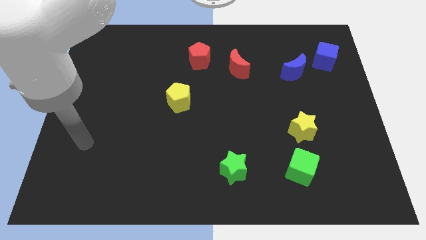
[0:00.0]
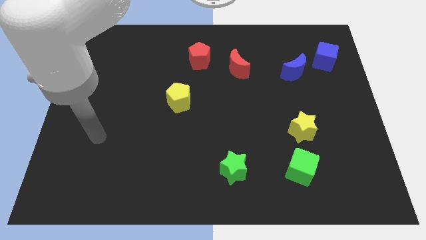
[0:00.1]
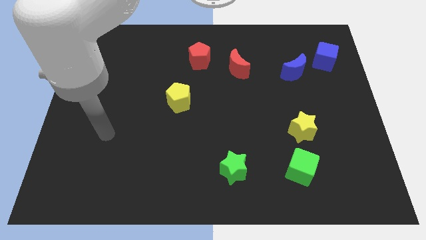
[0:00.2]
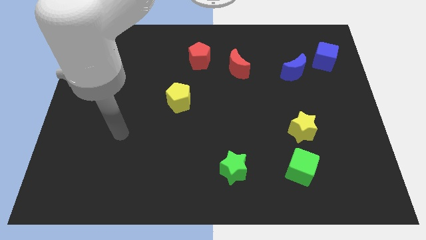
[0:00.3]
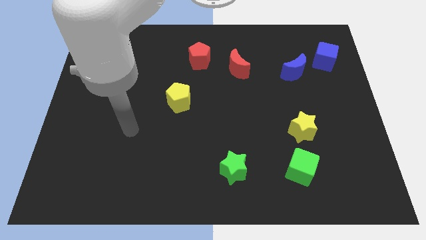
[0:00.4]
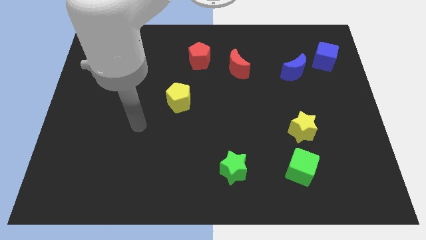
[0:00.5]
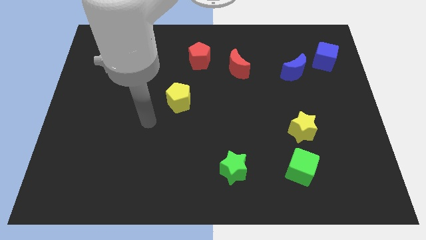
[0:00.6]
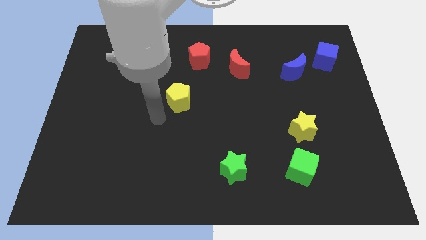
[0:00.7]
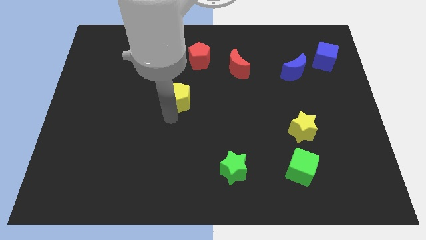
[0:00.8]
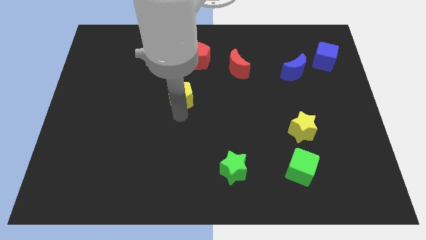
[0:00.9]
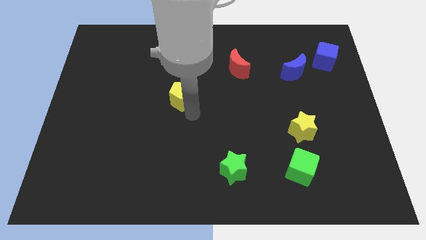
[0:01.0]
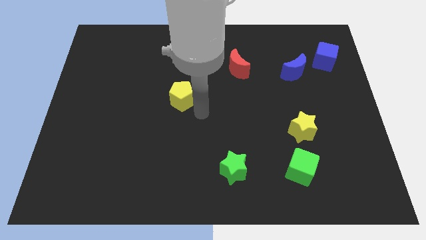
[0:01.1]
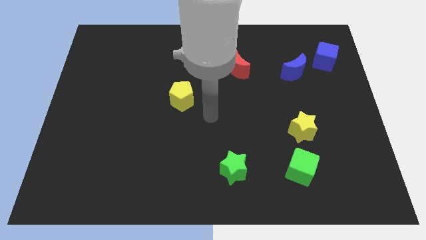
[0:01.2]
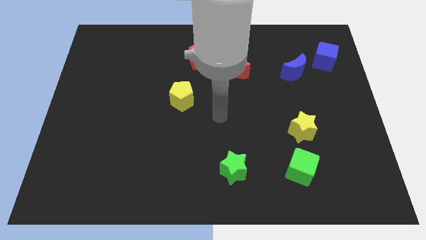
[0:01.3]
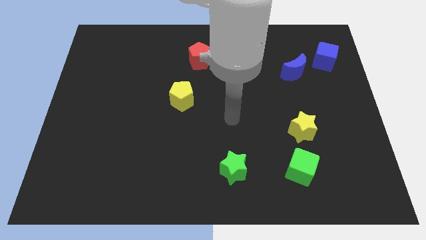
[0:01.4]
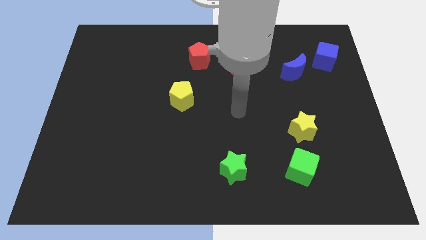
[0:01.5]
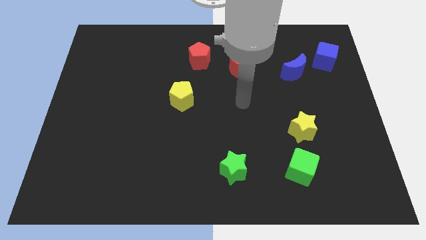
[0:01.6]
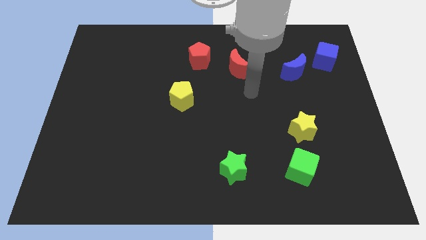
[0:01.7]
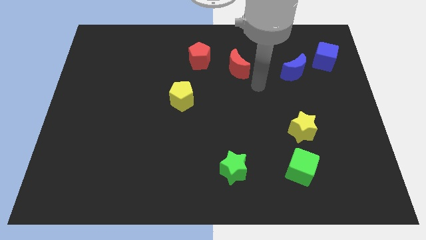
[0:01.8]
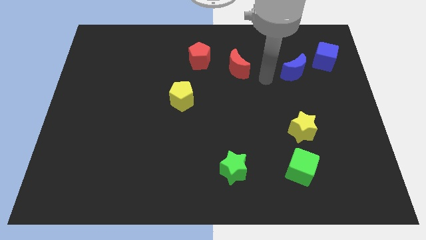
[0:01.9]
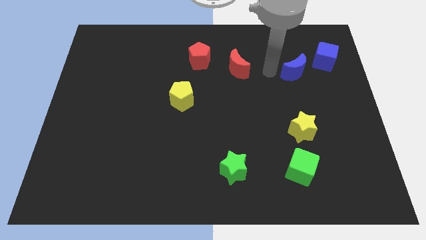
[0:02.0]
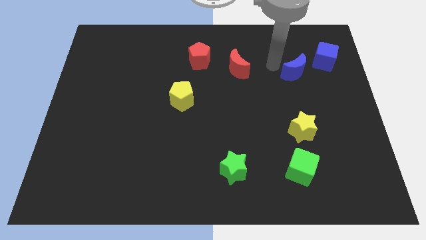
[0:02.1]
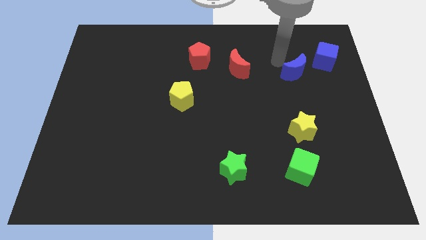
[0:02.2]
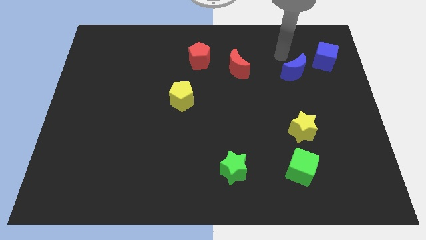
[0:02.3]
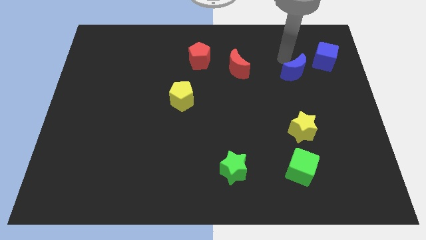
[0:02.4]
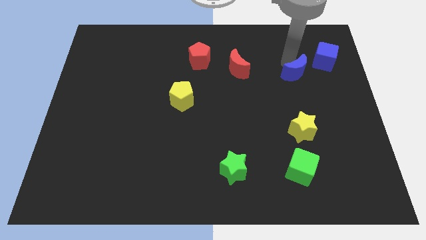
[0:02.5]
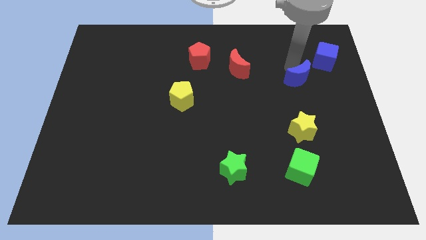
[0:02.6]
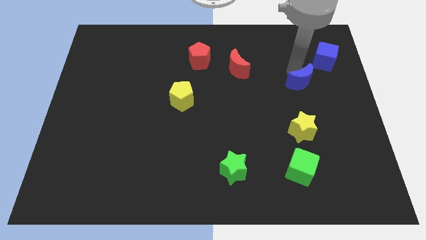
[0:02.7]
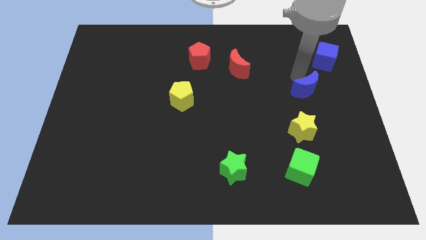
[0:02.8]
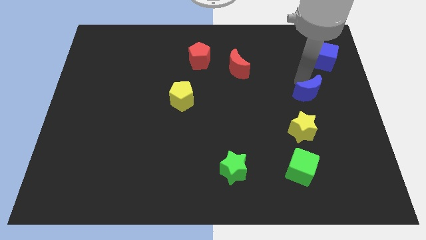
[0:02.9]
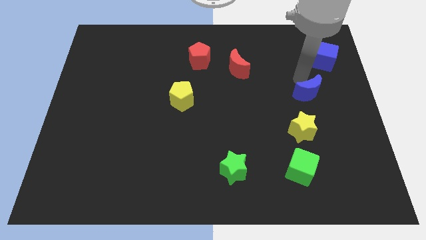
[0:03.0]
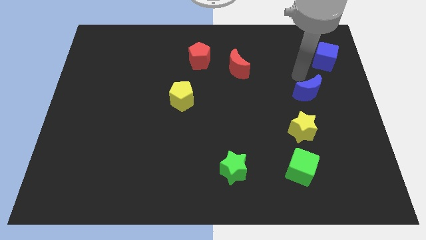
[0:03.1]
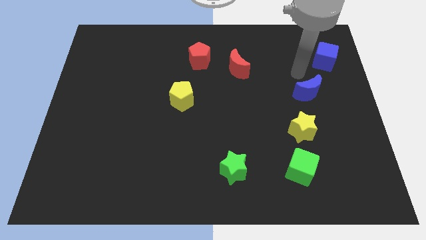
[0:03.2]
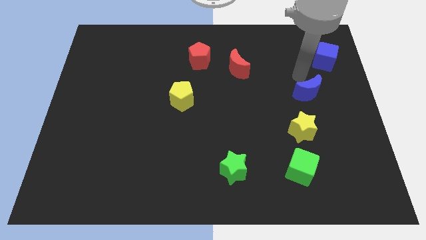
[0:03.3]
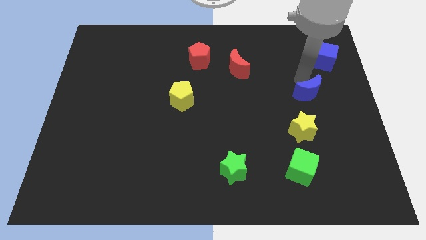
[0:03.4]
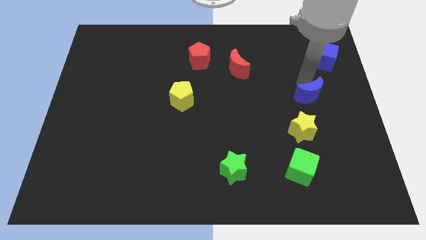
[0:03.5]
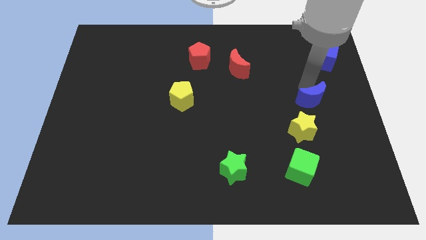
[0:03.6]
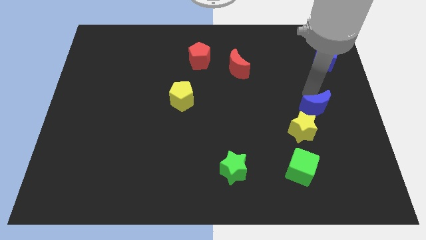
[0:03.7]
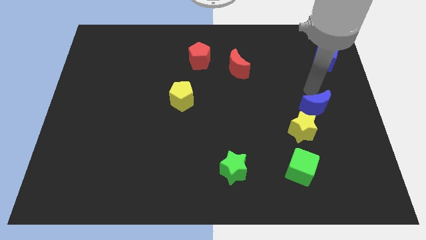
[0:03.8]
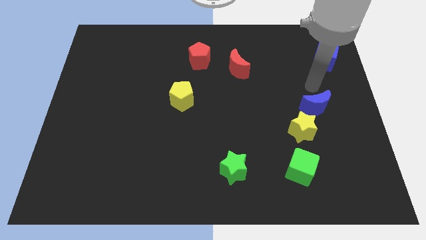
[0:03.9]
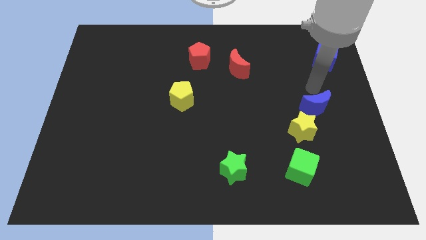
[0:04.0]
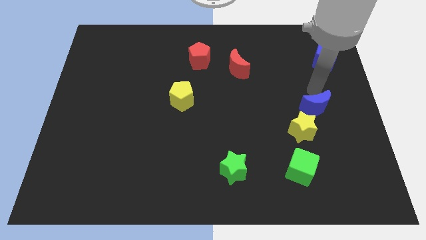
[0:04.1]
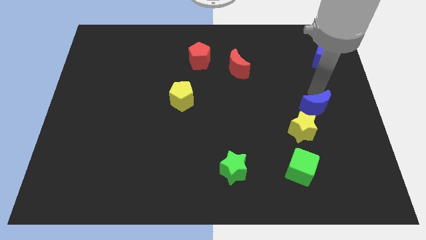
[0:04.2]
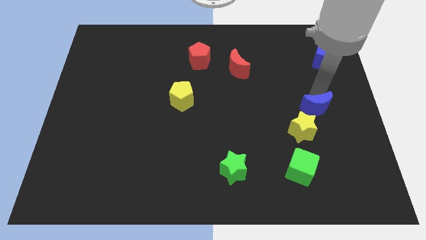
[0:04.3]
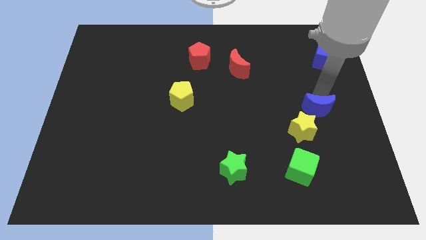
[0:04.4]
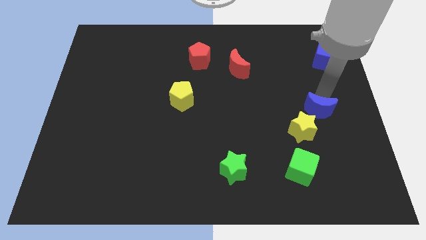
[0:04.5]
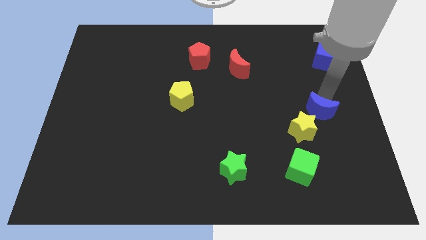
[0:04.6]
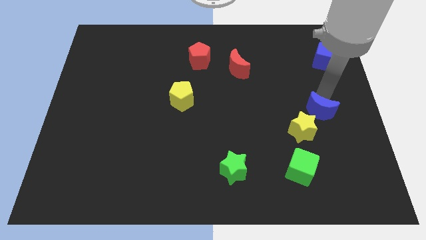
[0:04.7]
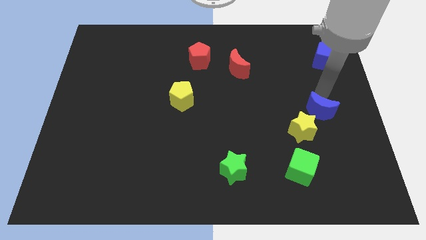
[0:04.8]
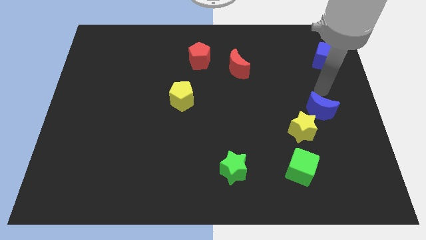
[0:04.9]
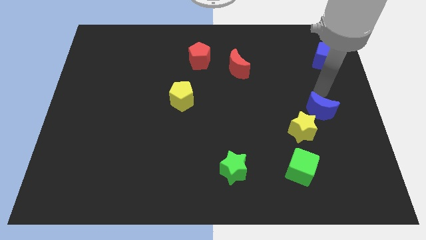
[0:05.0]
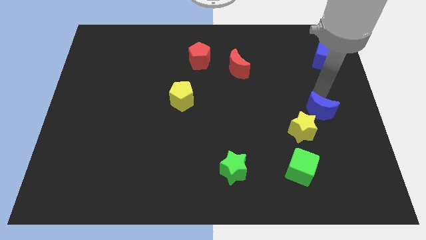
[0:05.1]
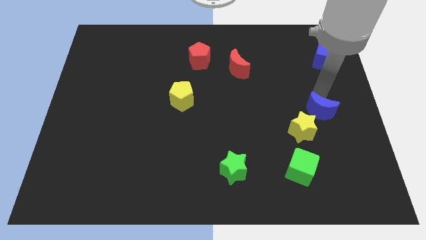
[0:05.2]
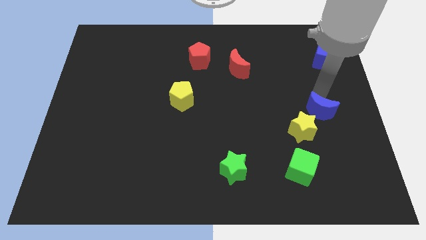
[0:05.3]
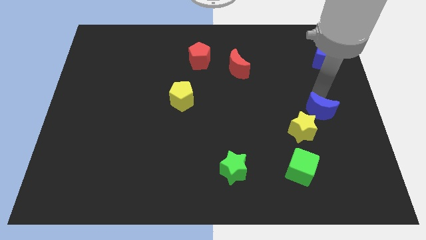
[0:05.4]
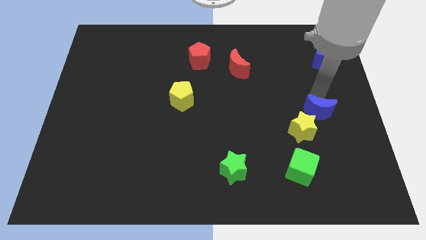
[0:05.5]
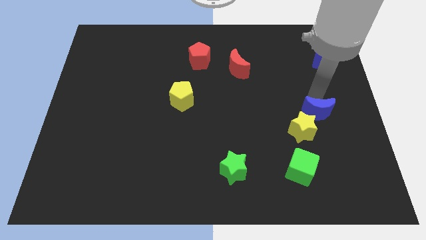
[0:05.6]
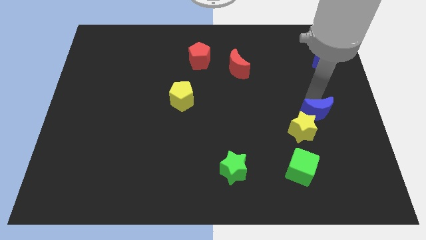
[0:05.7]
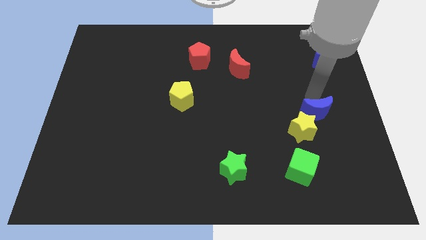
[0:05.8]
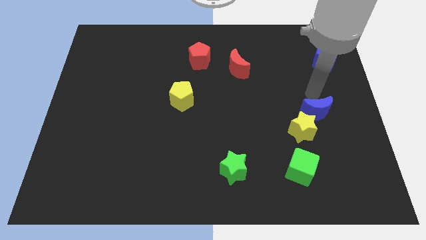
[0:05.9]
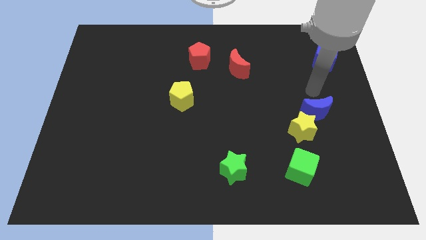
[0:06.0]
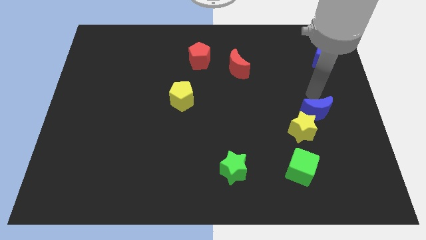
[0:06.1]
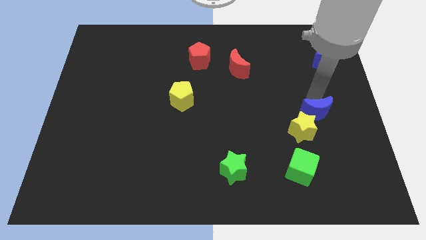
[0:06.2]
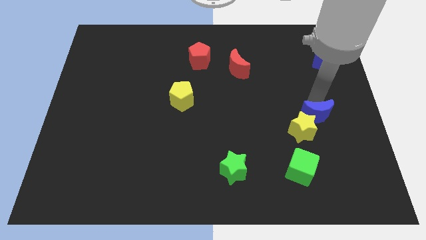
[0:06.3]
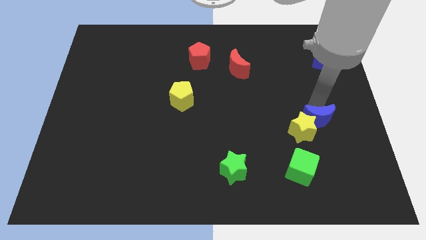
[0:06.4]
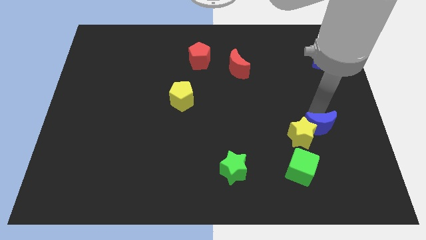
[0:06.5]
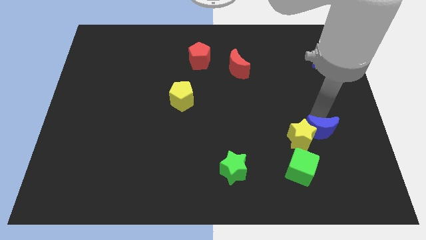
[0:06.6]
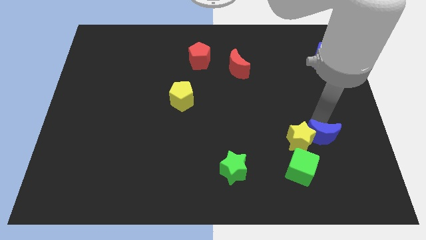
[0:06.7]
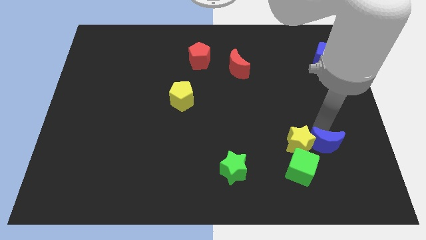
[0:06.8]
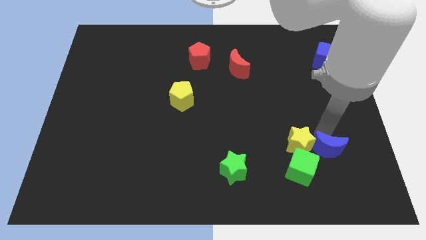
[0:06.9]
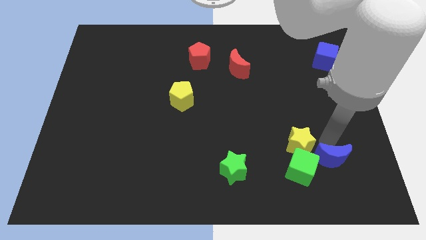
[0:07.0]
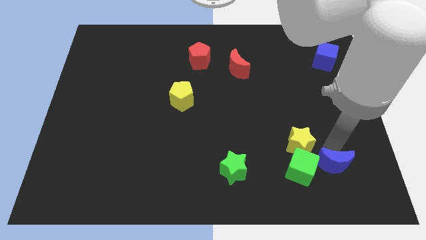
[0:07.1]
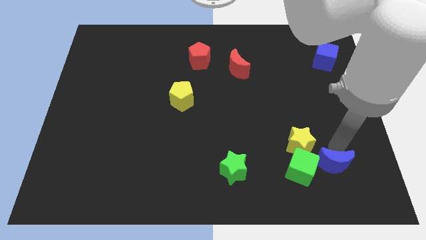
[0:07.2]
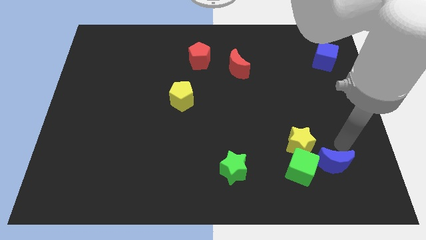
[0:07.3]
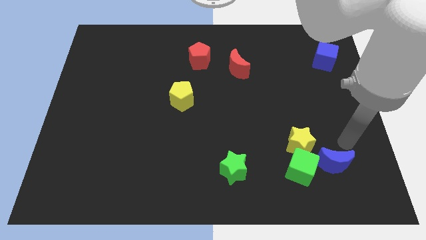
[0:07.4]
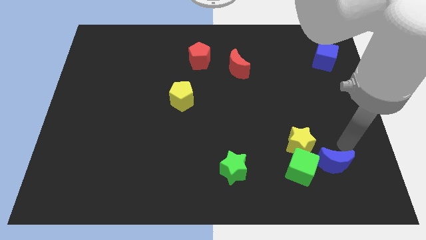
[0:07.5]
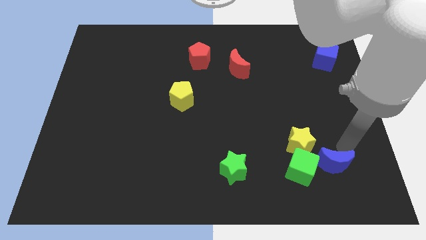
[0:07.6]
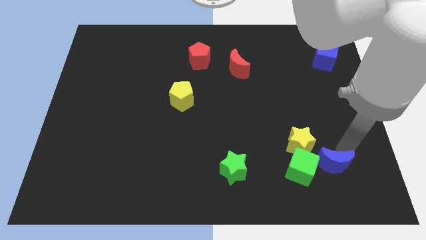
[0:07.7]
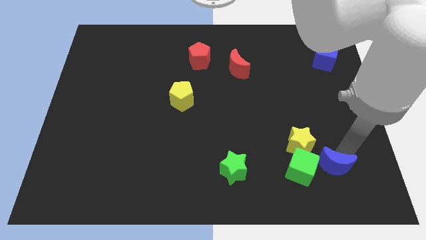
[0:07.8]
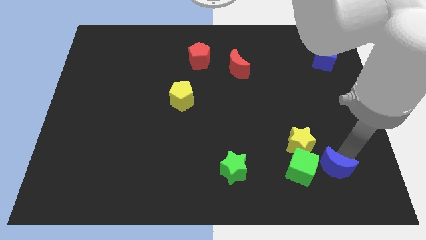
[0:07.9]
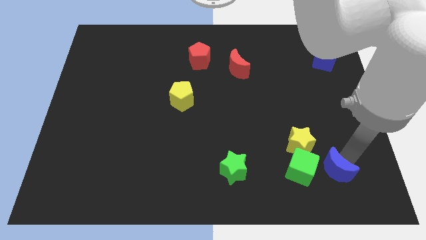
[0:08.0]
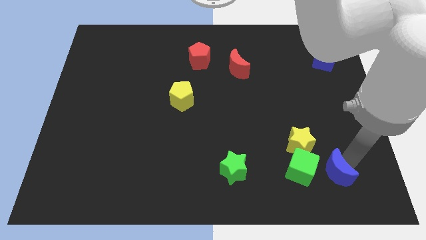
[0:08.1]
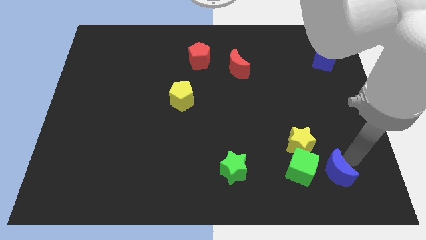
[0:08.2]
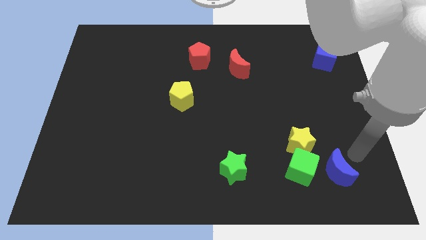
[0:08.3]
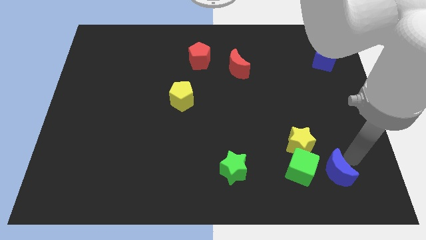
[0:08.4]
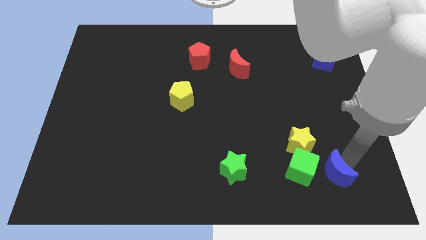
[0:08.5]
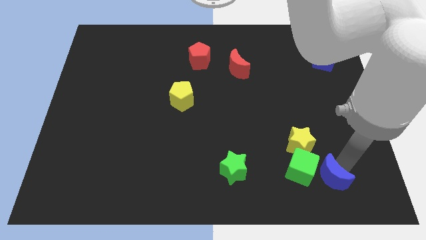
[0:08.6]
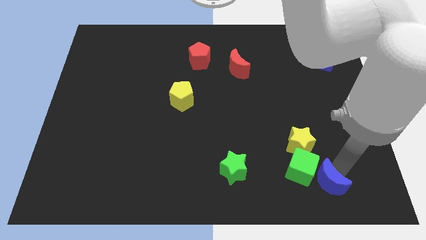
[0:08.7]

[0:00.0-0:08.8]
slide the blue moon to the bottom side of the yellow star
